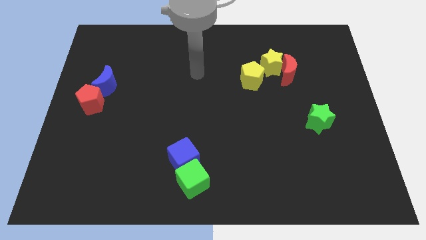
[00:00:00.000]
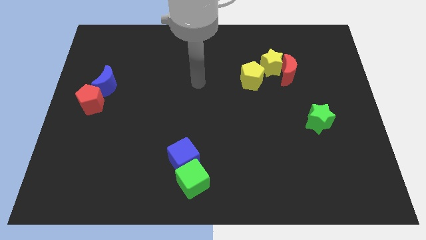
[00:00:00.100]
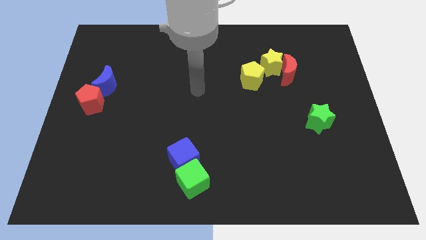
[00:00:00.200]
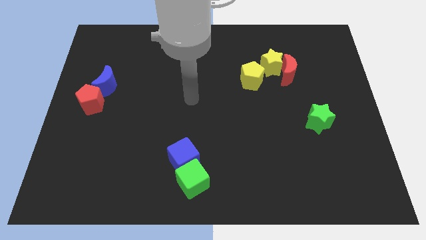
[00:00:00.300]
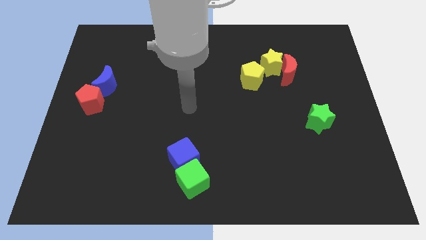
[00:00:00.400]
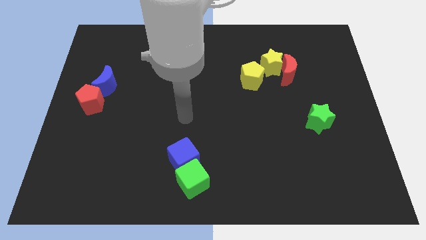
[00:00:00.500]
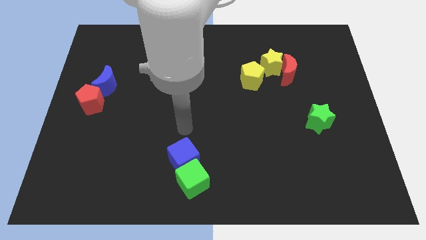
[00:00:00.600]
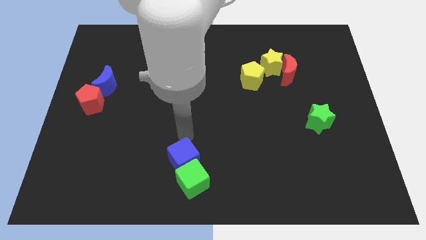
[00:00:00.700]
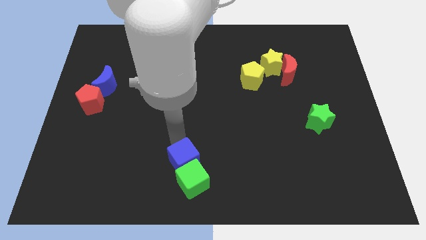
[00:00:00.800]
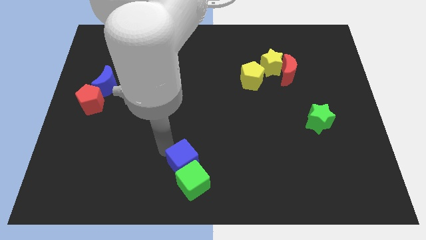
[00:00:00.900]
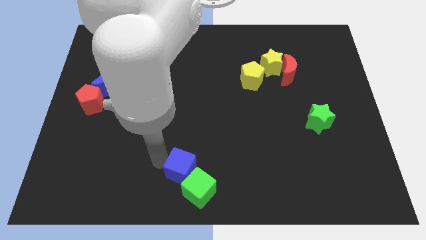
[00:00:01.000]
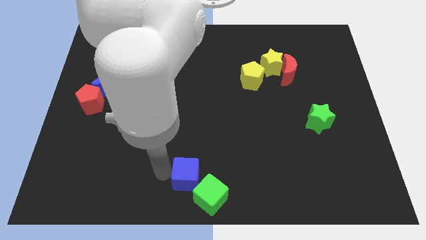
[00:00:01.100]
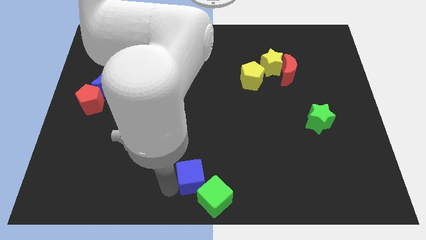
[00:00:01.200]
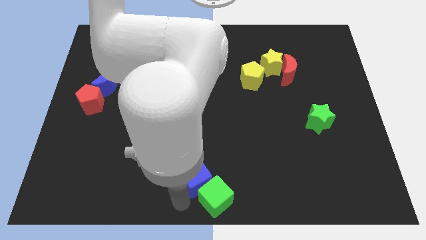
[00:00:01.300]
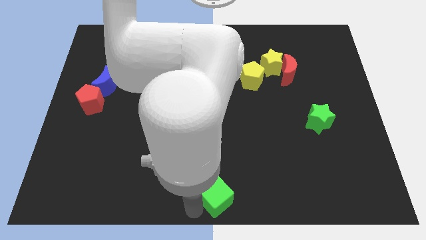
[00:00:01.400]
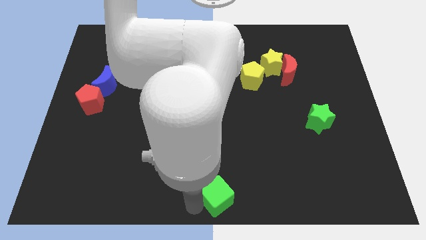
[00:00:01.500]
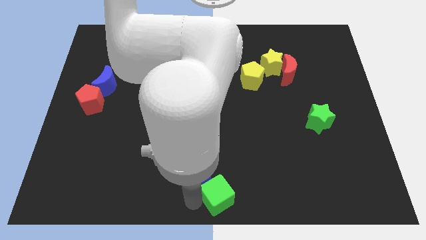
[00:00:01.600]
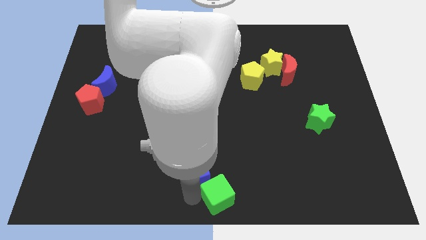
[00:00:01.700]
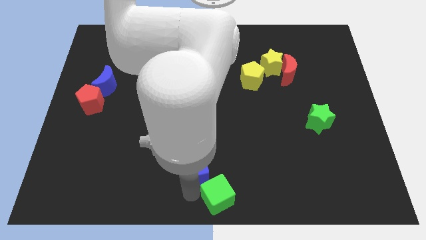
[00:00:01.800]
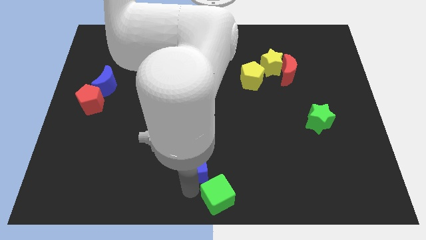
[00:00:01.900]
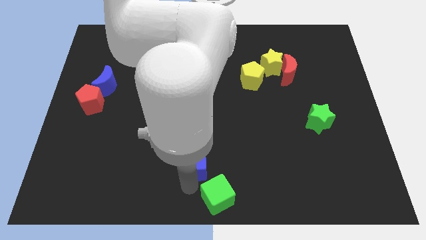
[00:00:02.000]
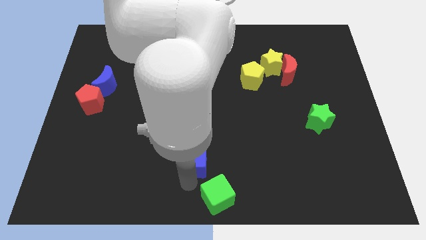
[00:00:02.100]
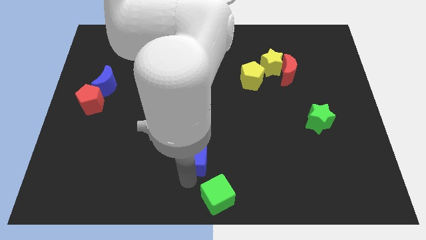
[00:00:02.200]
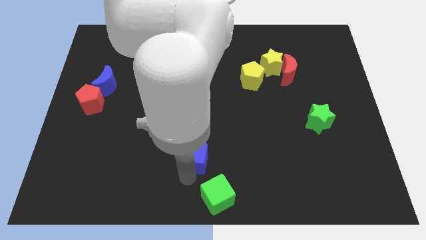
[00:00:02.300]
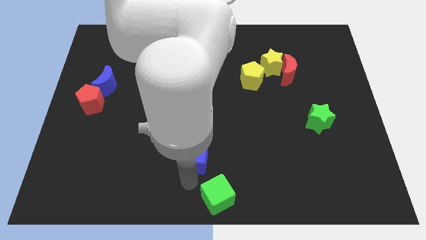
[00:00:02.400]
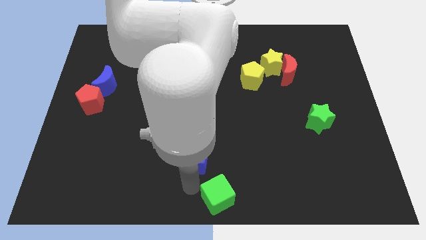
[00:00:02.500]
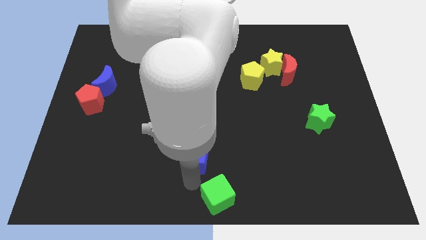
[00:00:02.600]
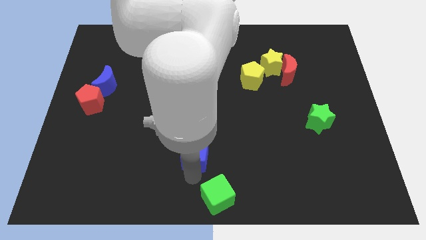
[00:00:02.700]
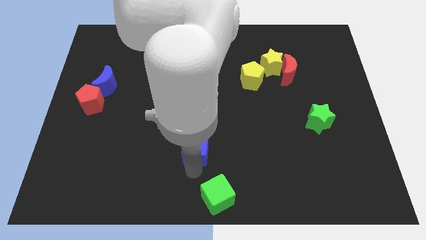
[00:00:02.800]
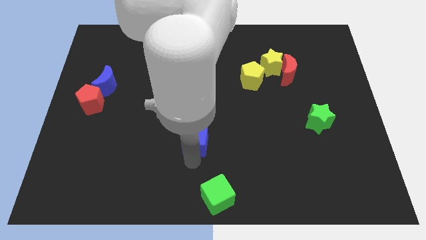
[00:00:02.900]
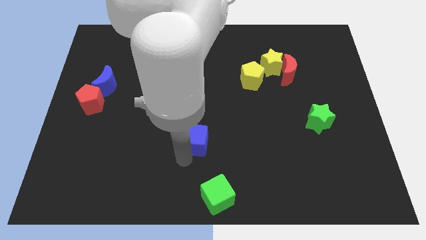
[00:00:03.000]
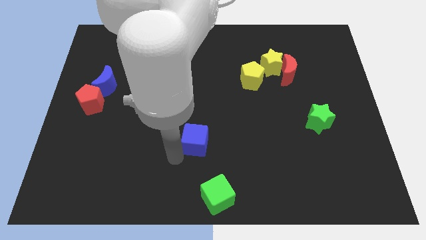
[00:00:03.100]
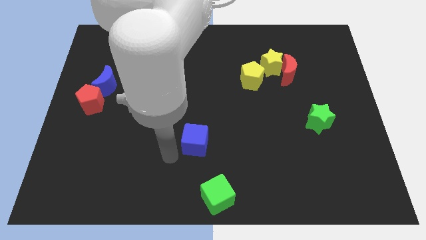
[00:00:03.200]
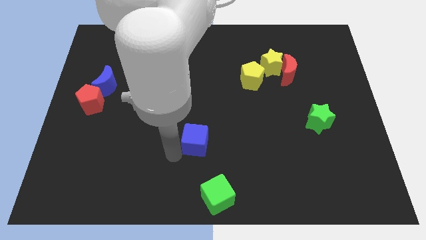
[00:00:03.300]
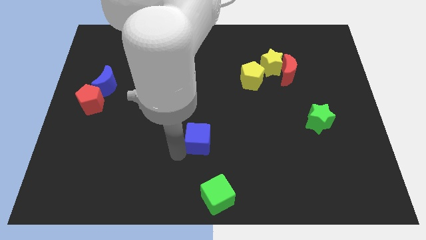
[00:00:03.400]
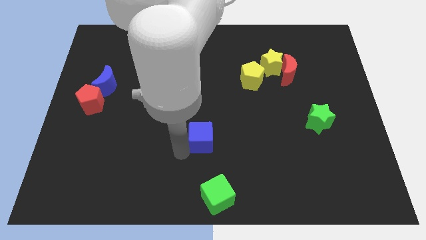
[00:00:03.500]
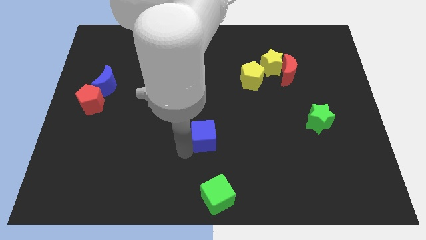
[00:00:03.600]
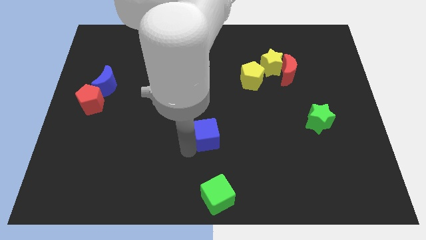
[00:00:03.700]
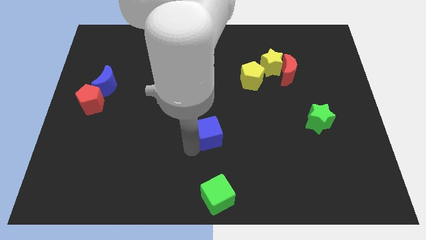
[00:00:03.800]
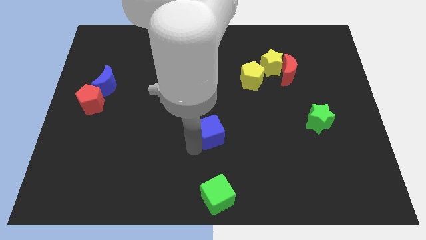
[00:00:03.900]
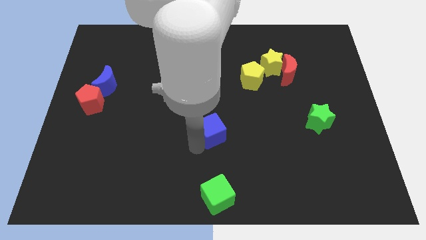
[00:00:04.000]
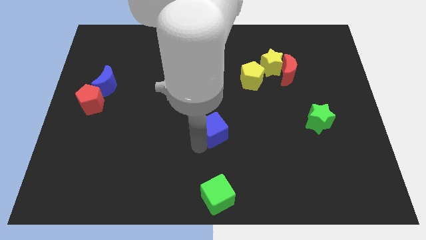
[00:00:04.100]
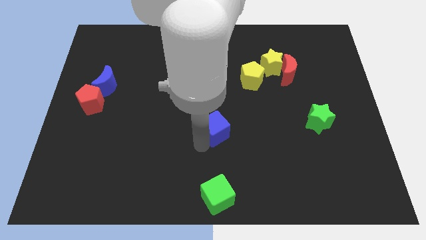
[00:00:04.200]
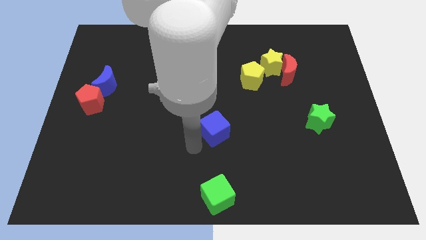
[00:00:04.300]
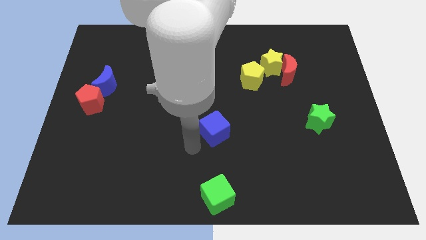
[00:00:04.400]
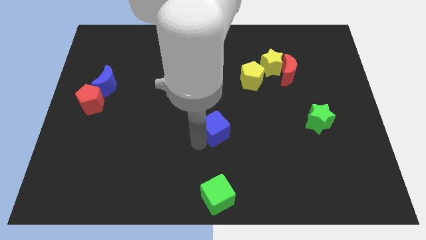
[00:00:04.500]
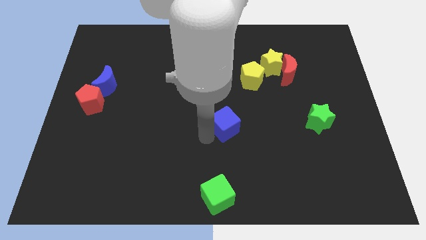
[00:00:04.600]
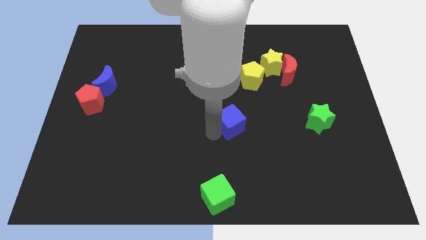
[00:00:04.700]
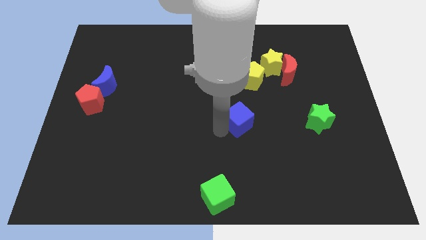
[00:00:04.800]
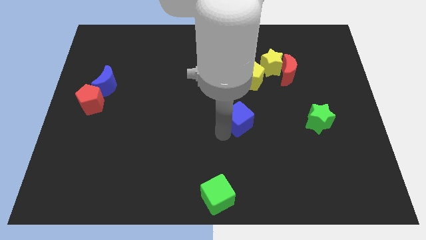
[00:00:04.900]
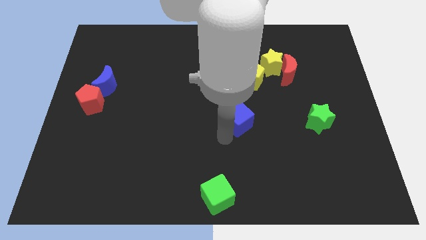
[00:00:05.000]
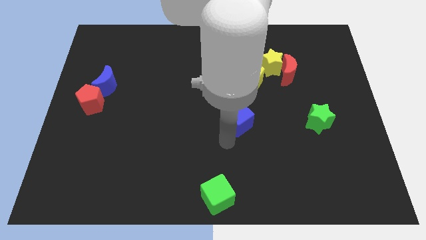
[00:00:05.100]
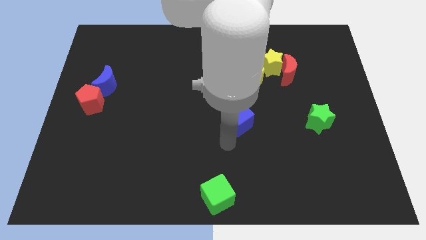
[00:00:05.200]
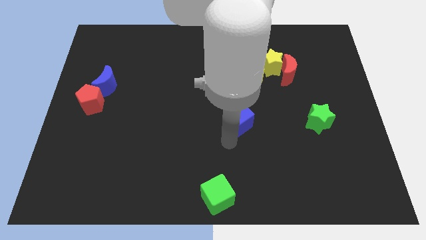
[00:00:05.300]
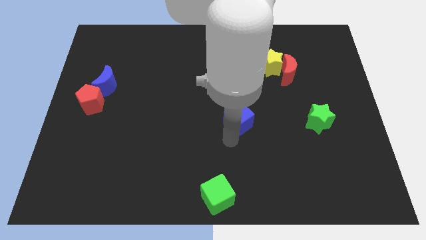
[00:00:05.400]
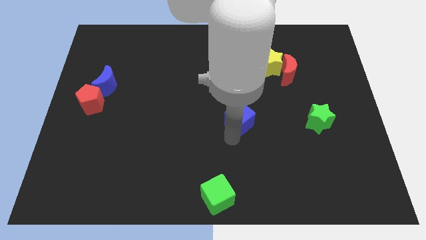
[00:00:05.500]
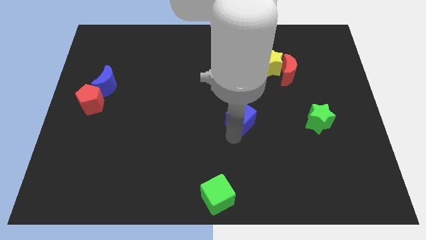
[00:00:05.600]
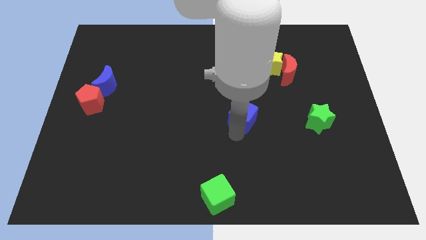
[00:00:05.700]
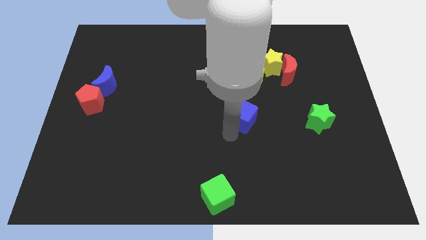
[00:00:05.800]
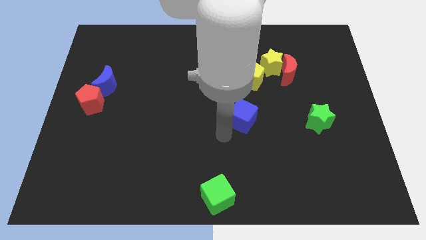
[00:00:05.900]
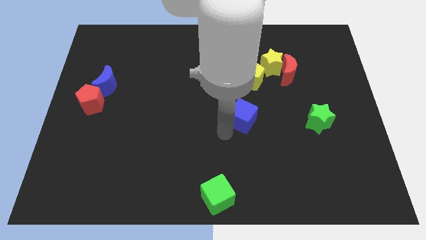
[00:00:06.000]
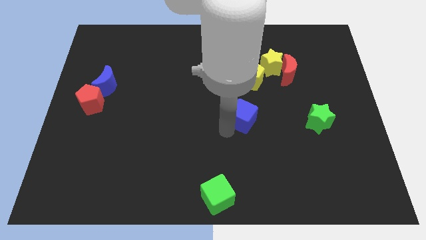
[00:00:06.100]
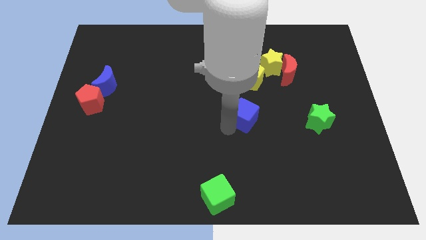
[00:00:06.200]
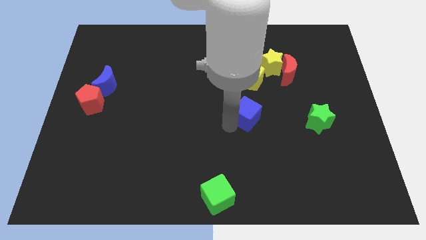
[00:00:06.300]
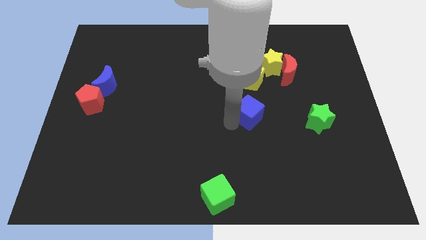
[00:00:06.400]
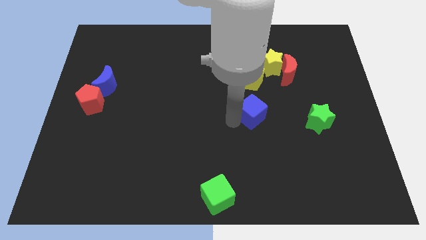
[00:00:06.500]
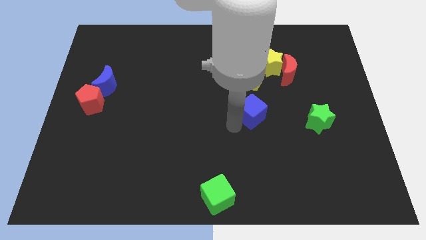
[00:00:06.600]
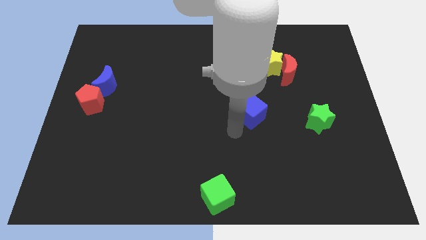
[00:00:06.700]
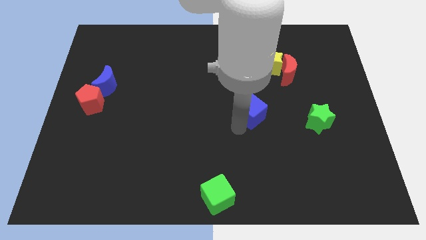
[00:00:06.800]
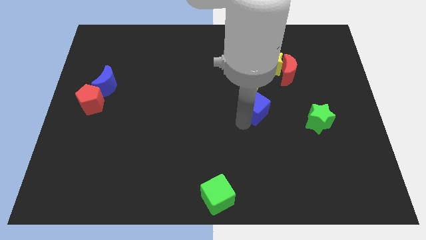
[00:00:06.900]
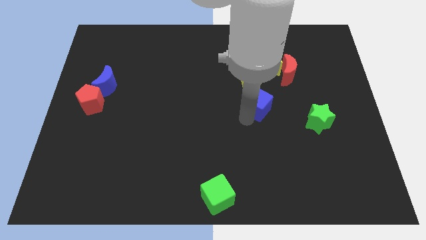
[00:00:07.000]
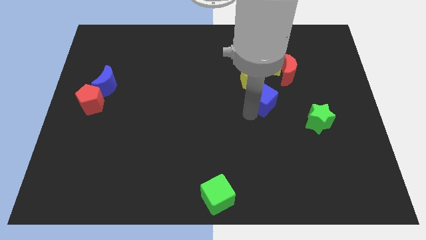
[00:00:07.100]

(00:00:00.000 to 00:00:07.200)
slide the blue cube diagonally down and to the right of the yellow pentagon
